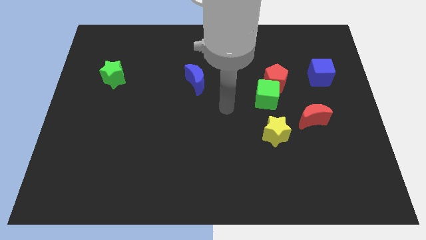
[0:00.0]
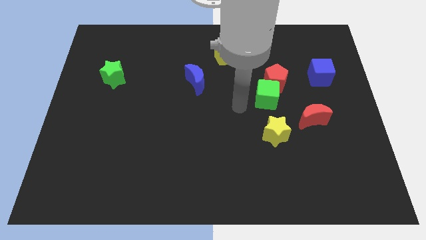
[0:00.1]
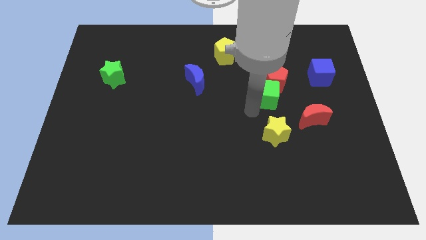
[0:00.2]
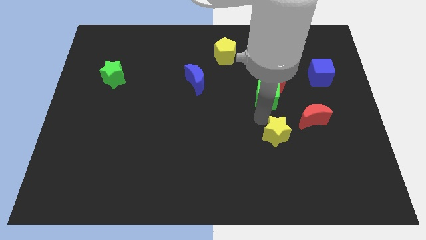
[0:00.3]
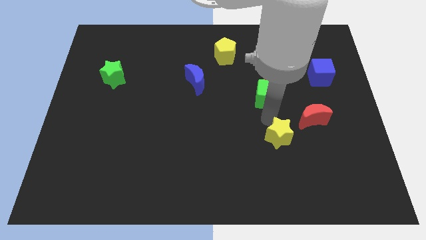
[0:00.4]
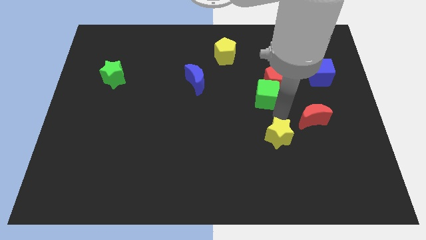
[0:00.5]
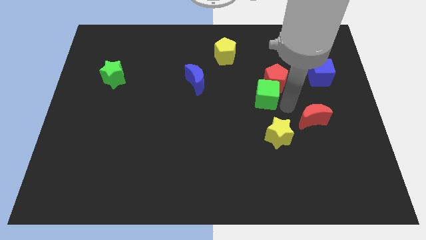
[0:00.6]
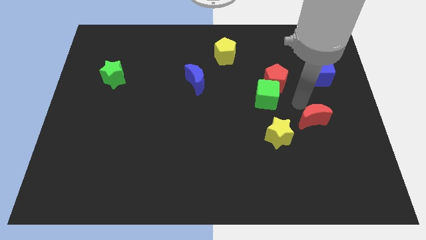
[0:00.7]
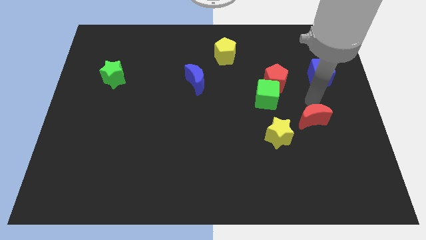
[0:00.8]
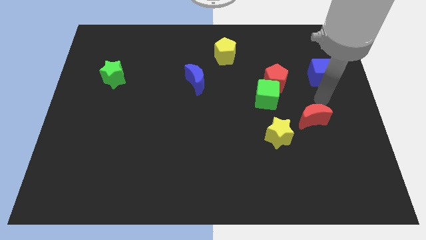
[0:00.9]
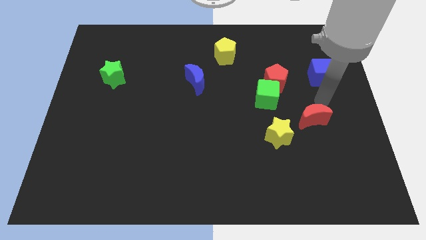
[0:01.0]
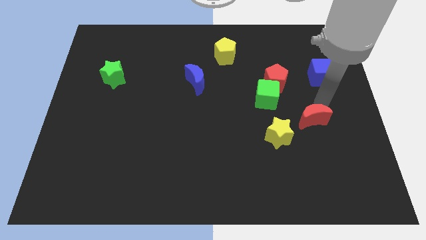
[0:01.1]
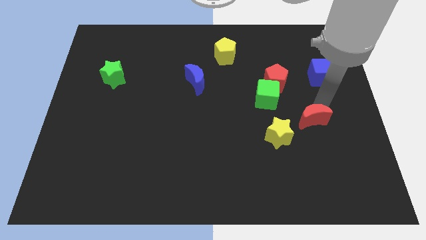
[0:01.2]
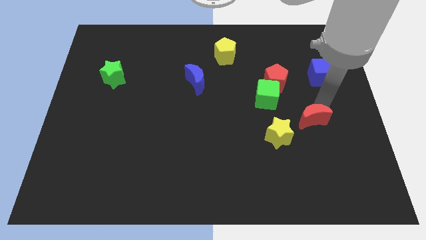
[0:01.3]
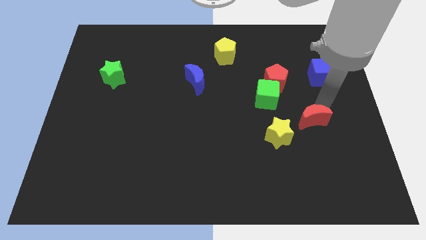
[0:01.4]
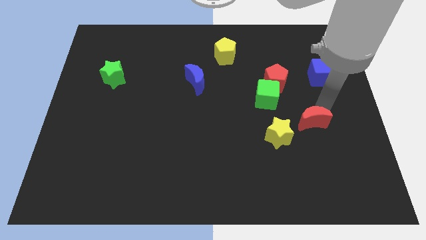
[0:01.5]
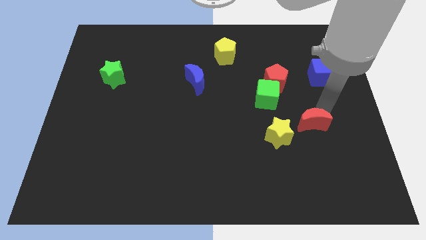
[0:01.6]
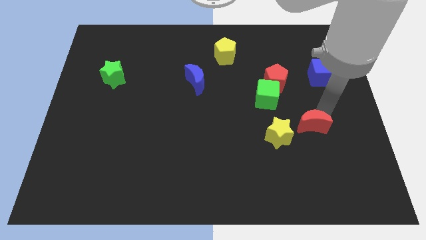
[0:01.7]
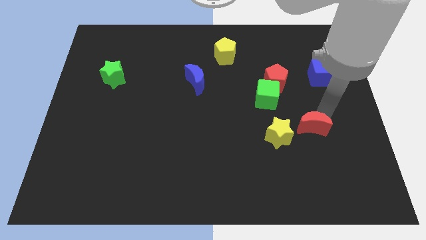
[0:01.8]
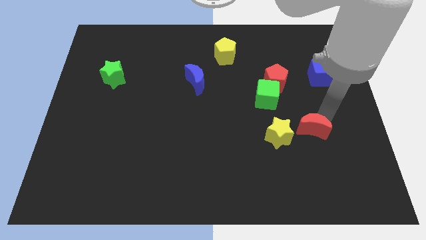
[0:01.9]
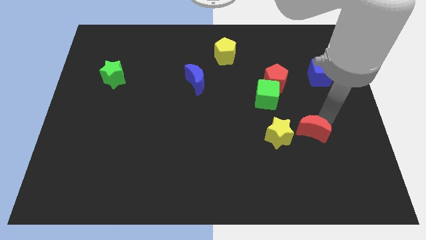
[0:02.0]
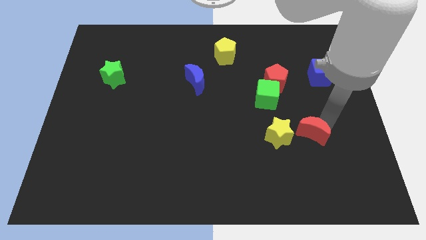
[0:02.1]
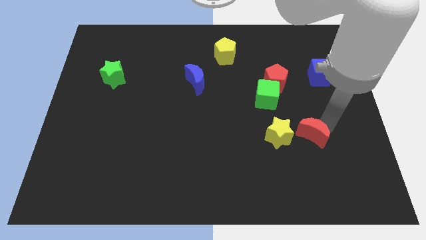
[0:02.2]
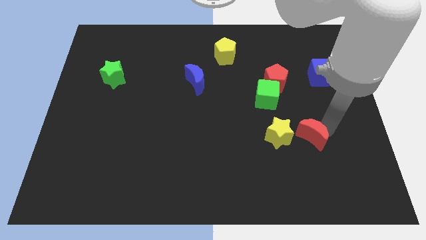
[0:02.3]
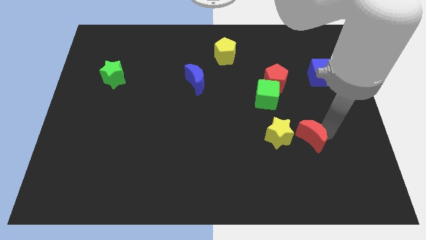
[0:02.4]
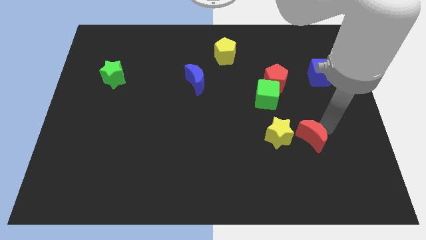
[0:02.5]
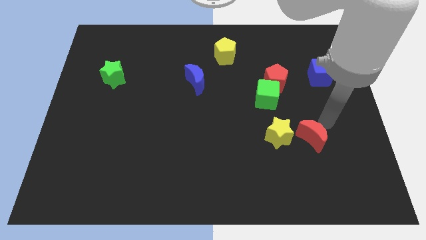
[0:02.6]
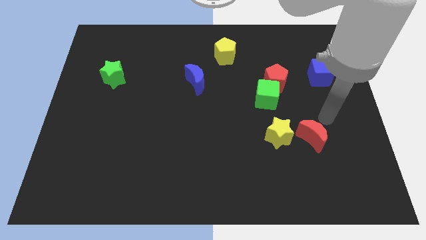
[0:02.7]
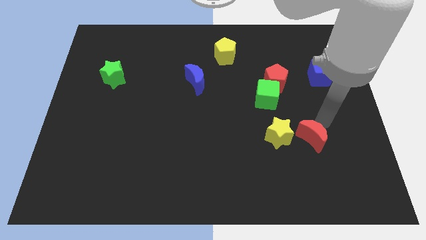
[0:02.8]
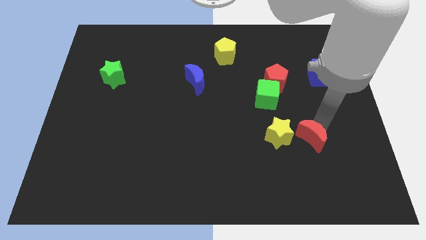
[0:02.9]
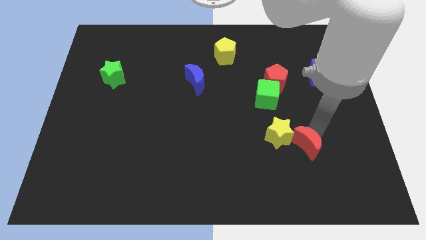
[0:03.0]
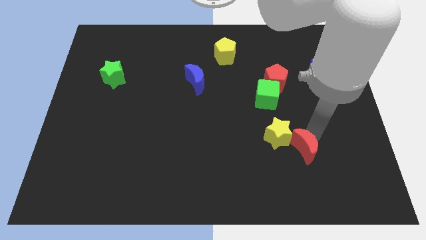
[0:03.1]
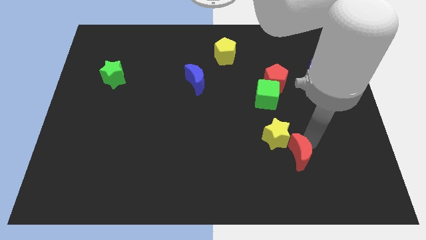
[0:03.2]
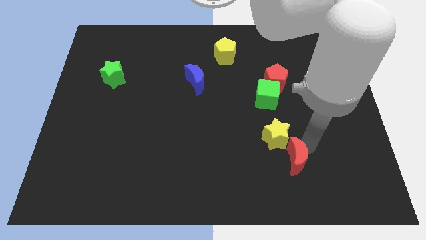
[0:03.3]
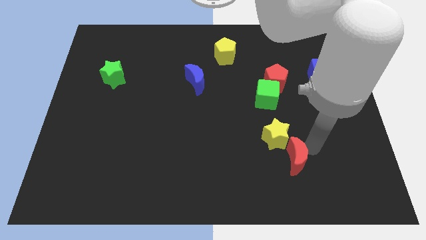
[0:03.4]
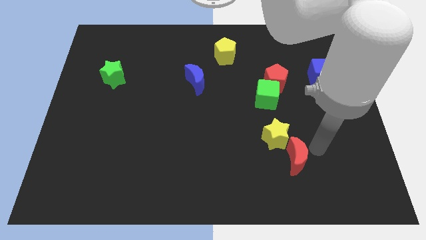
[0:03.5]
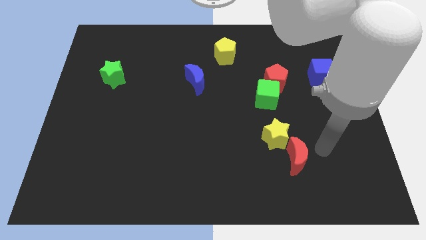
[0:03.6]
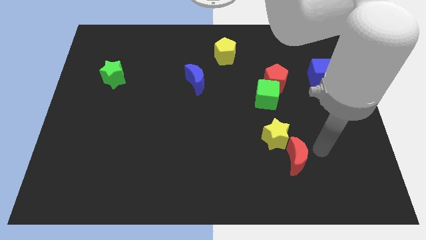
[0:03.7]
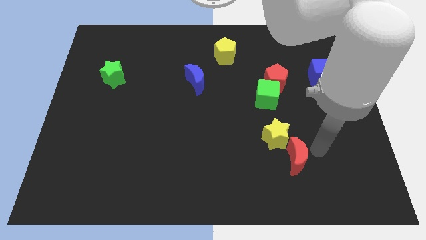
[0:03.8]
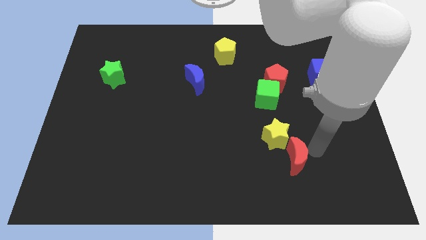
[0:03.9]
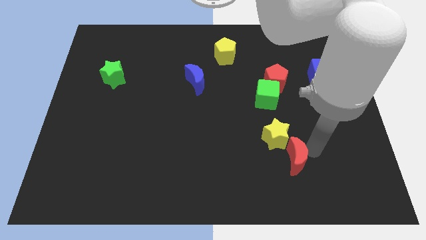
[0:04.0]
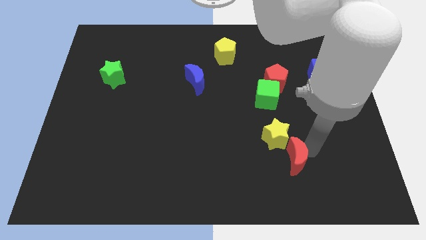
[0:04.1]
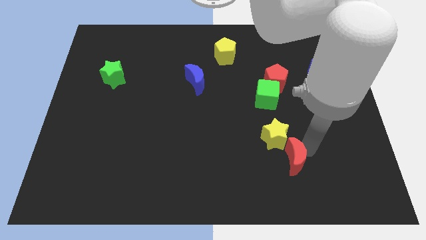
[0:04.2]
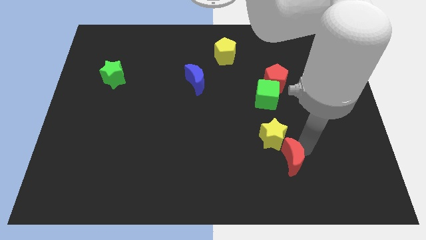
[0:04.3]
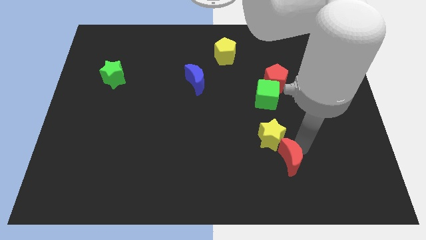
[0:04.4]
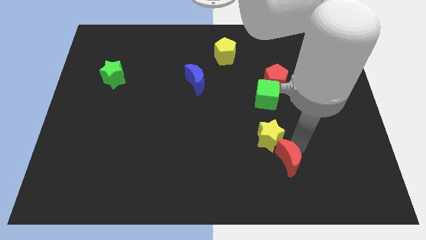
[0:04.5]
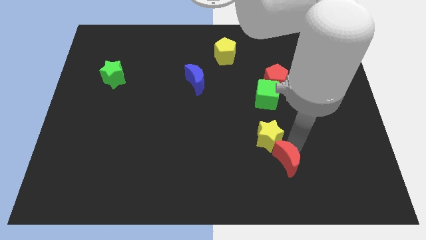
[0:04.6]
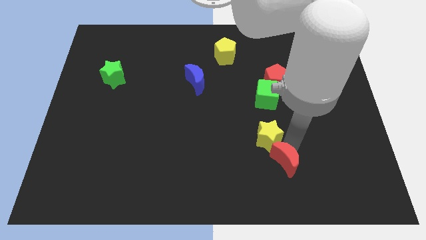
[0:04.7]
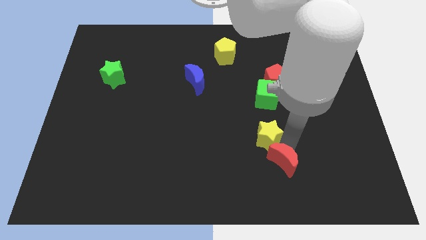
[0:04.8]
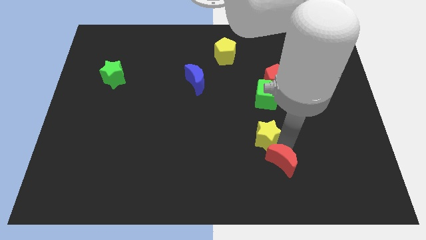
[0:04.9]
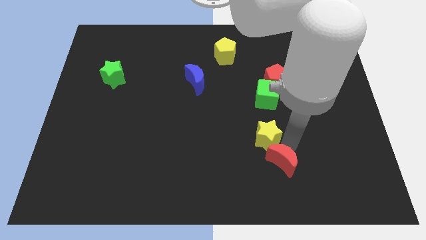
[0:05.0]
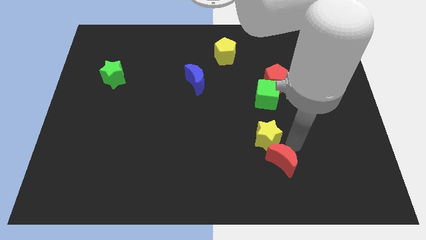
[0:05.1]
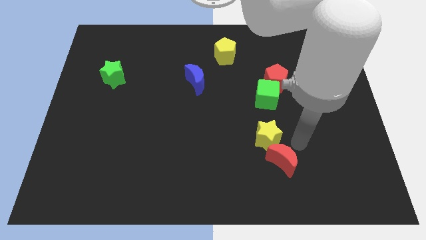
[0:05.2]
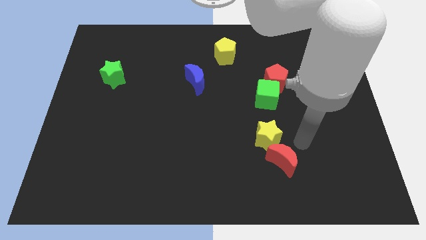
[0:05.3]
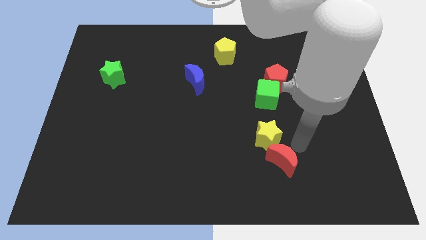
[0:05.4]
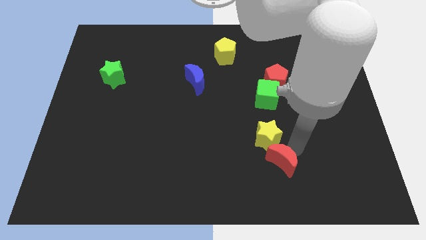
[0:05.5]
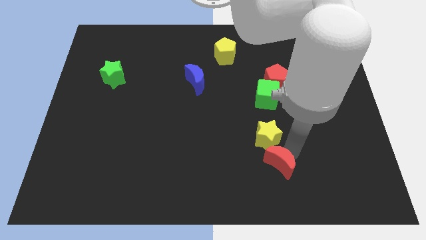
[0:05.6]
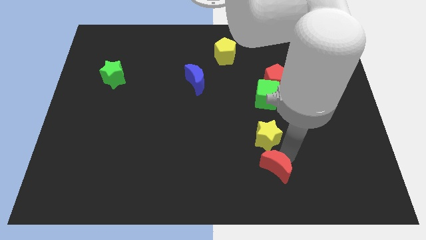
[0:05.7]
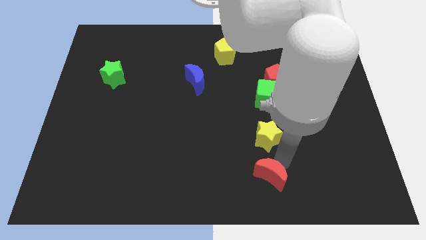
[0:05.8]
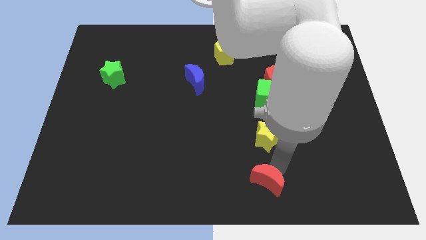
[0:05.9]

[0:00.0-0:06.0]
move the red moon to the bottom side
